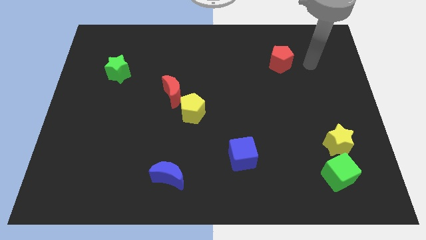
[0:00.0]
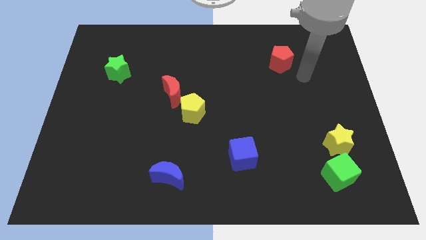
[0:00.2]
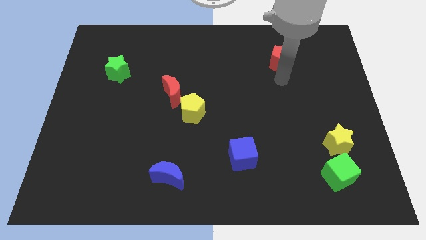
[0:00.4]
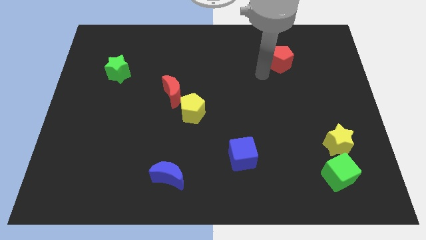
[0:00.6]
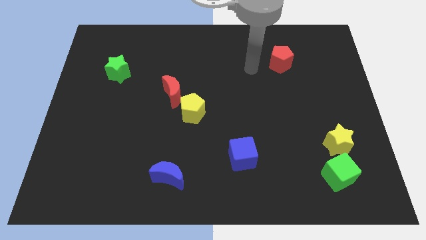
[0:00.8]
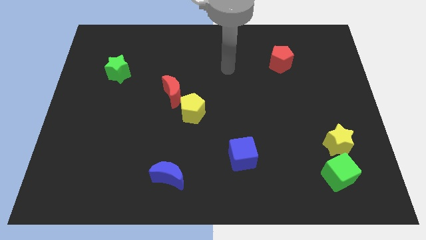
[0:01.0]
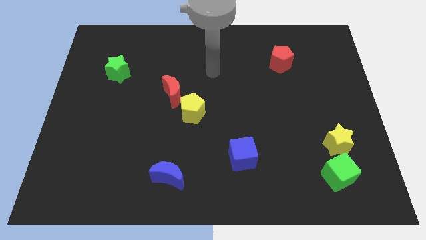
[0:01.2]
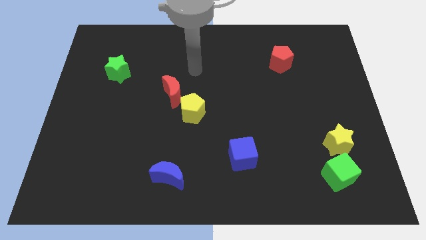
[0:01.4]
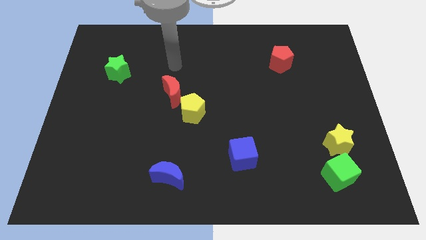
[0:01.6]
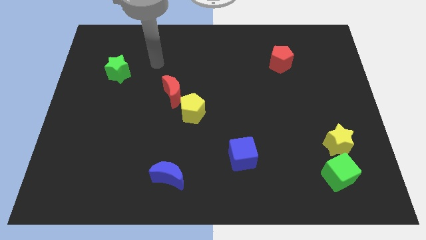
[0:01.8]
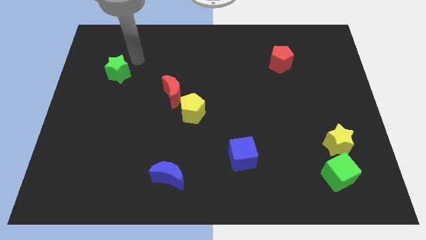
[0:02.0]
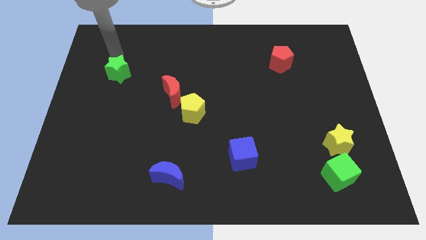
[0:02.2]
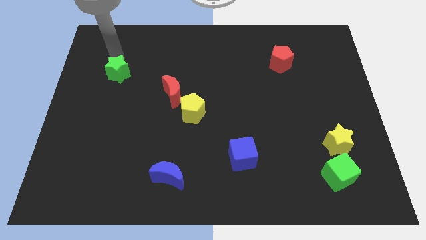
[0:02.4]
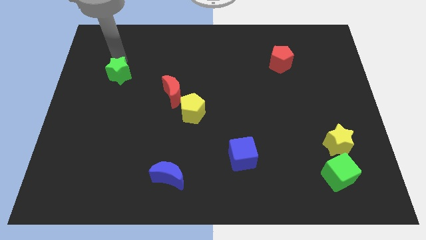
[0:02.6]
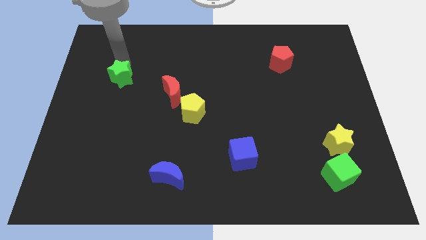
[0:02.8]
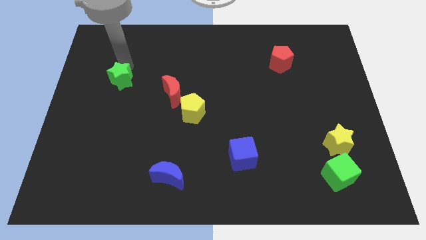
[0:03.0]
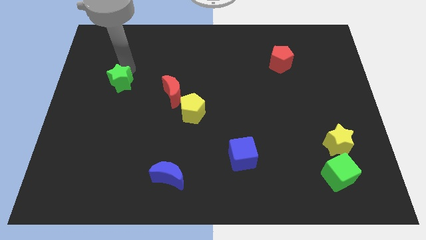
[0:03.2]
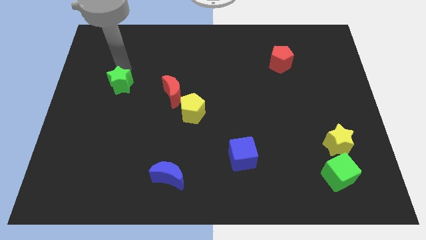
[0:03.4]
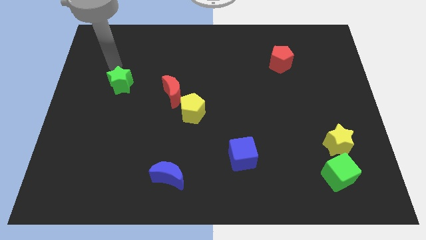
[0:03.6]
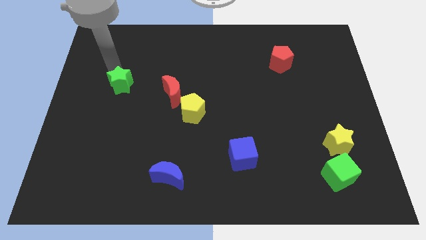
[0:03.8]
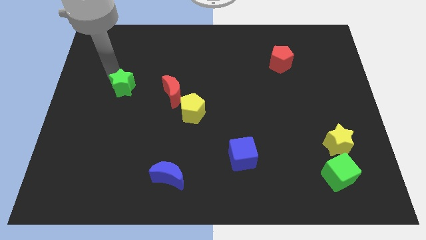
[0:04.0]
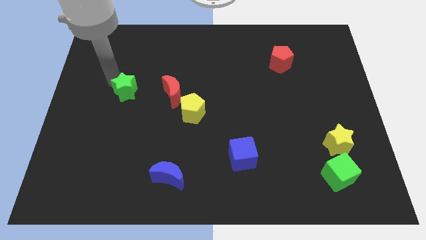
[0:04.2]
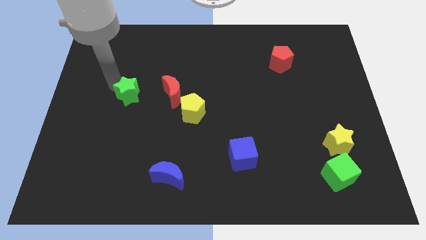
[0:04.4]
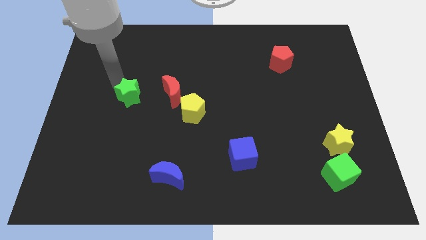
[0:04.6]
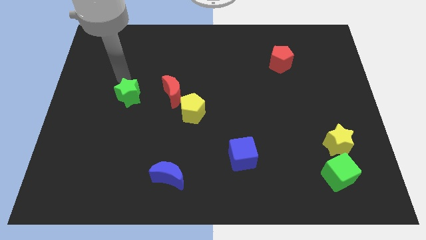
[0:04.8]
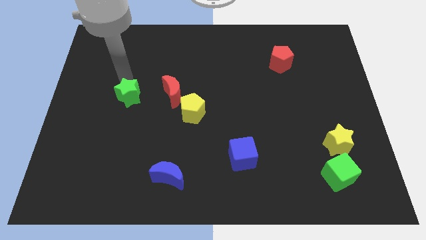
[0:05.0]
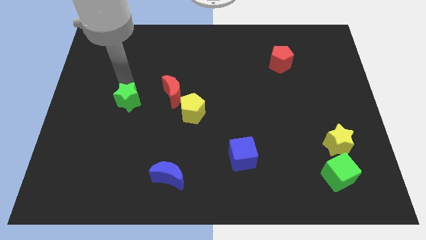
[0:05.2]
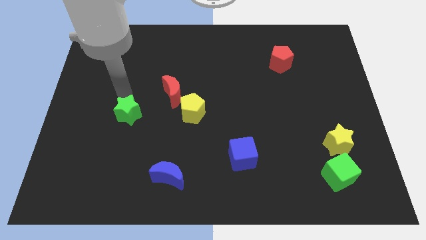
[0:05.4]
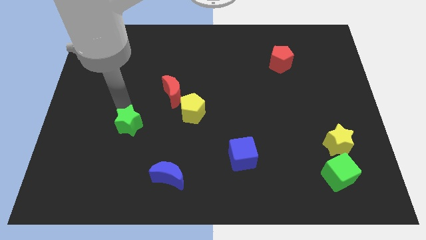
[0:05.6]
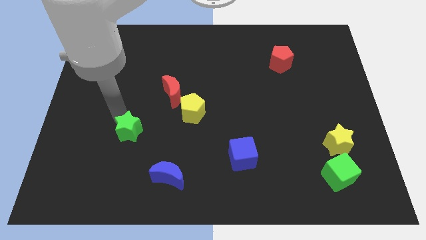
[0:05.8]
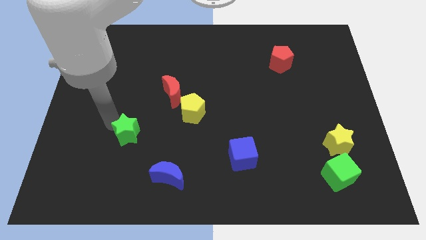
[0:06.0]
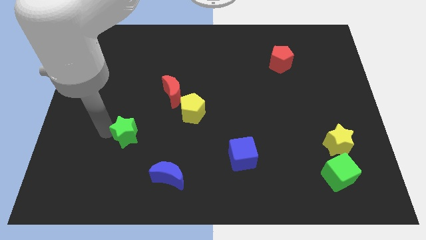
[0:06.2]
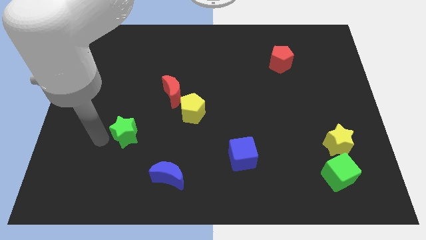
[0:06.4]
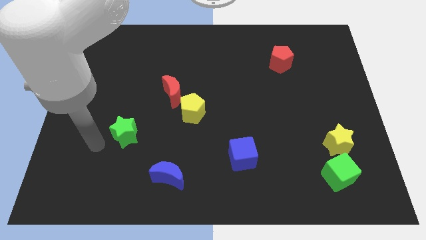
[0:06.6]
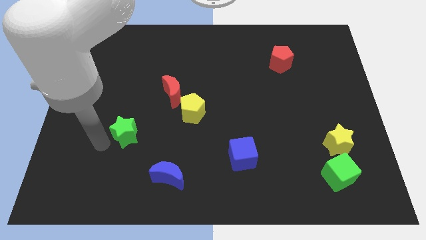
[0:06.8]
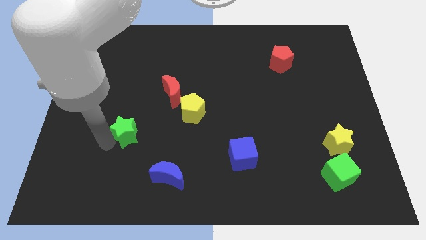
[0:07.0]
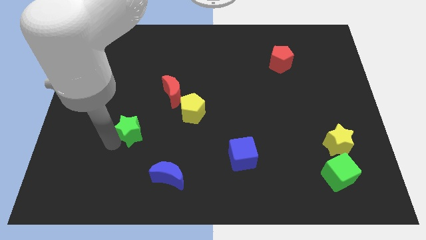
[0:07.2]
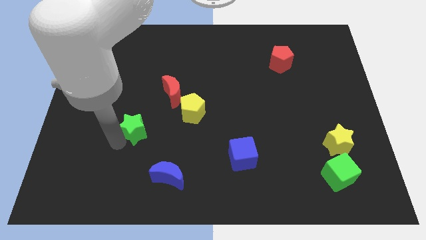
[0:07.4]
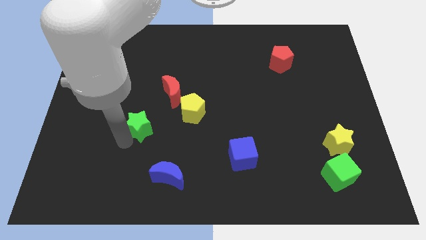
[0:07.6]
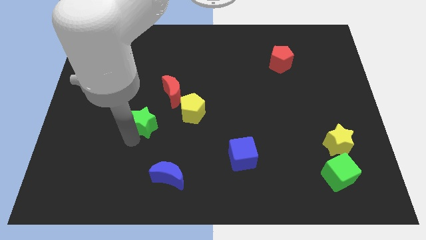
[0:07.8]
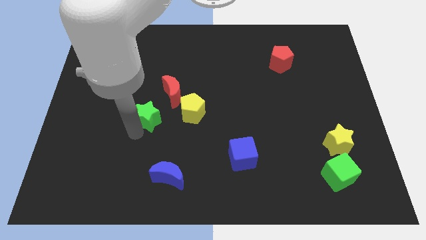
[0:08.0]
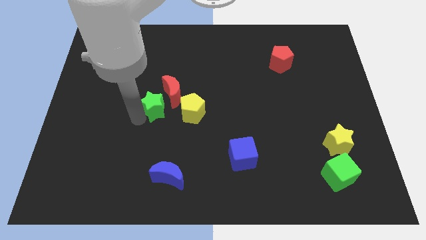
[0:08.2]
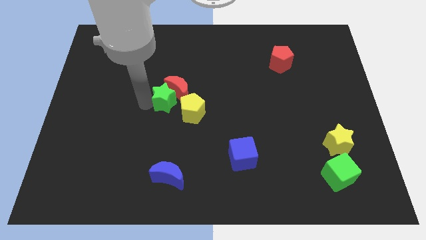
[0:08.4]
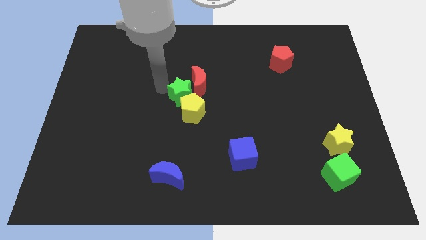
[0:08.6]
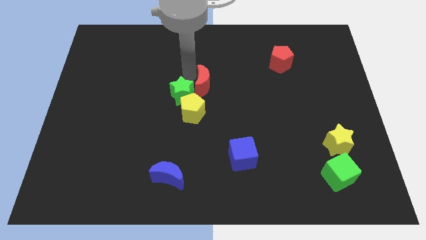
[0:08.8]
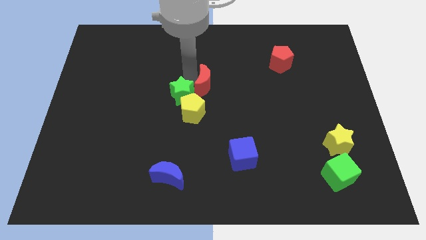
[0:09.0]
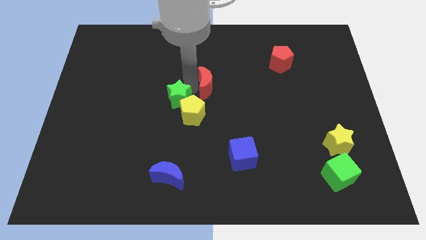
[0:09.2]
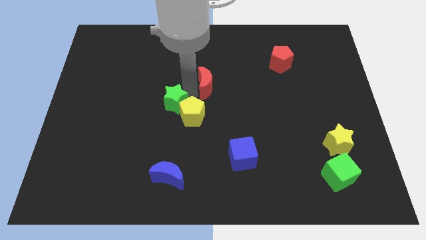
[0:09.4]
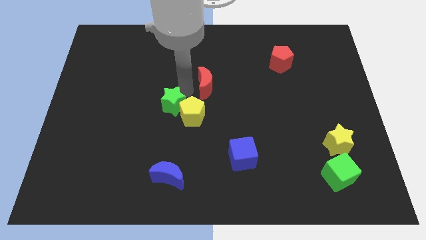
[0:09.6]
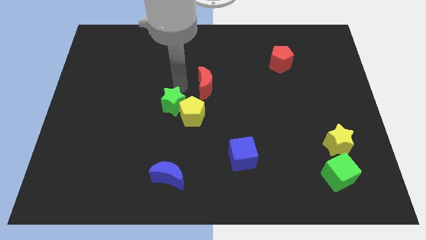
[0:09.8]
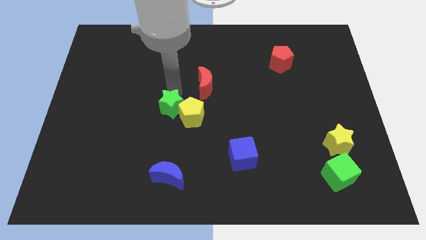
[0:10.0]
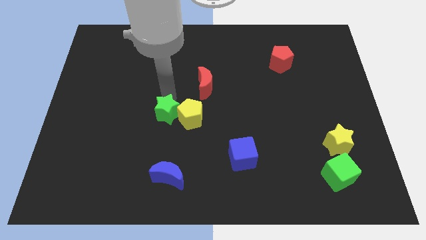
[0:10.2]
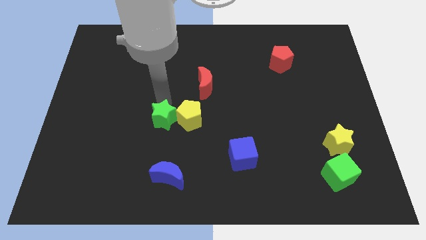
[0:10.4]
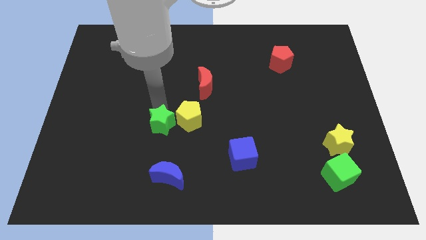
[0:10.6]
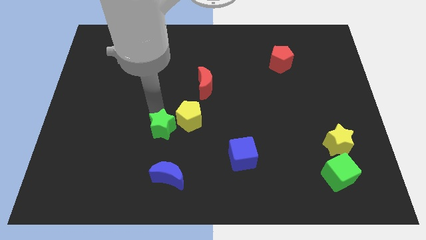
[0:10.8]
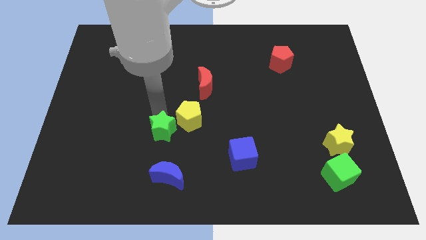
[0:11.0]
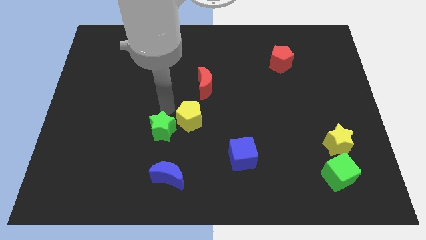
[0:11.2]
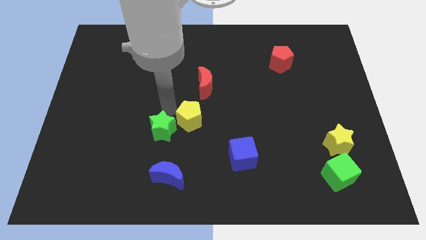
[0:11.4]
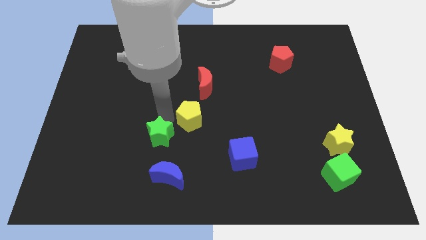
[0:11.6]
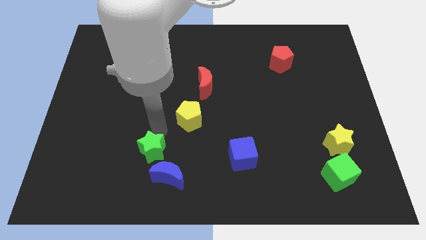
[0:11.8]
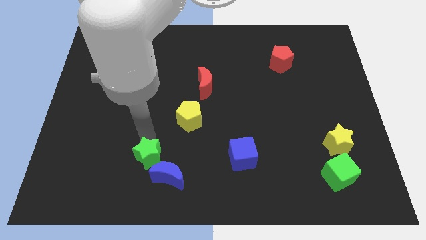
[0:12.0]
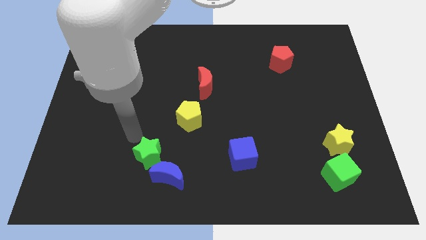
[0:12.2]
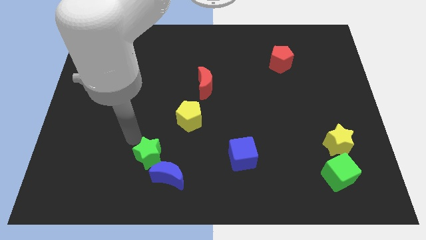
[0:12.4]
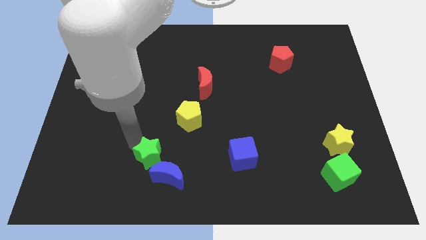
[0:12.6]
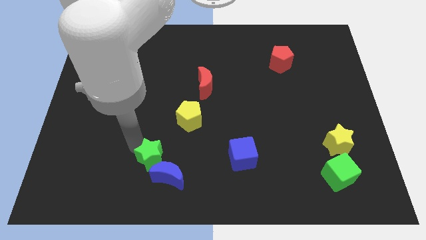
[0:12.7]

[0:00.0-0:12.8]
slide the green star to the blue moon

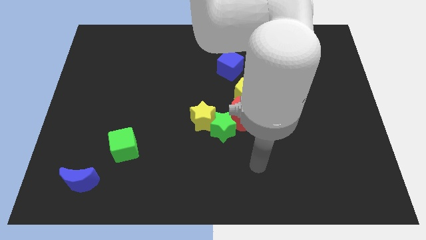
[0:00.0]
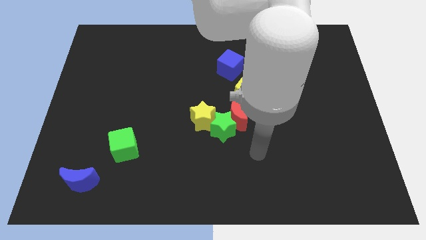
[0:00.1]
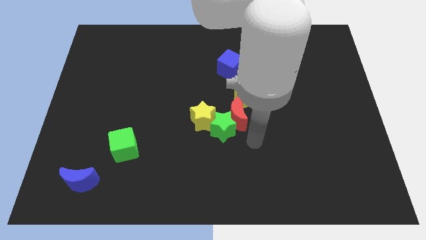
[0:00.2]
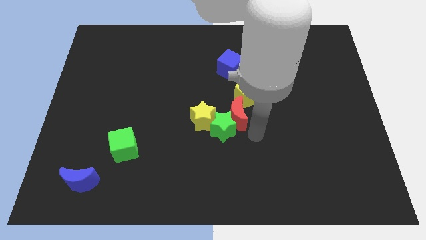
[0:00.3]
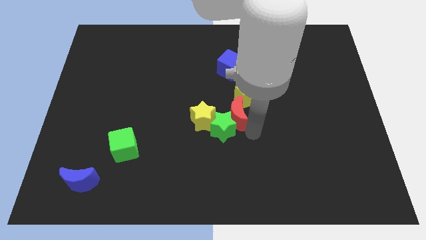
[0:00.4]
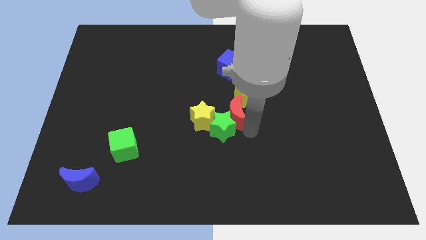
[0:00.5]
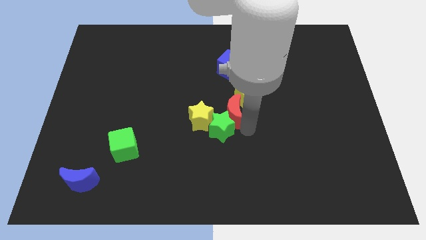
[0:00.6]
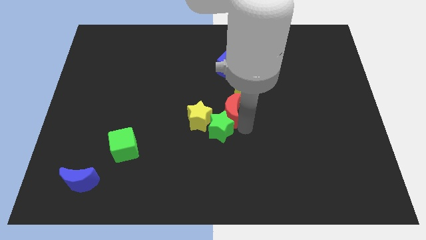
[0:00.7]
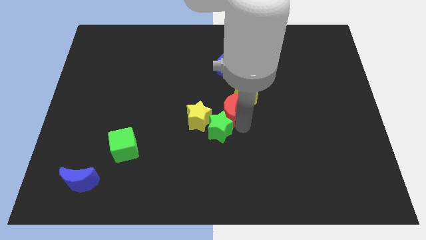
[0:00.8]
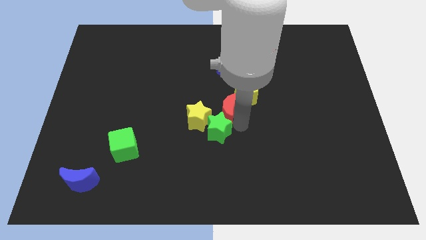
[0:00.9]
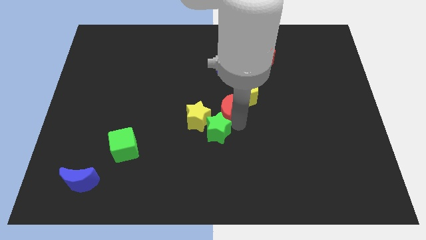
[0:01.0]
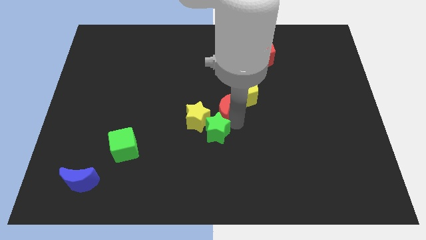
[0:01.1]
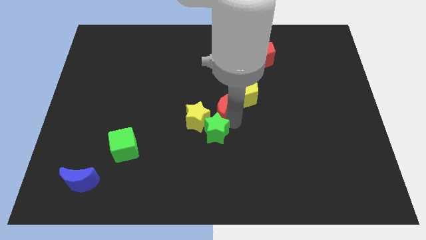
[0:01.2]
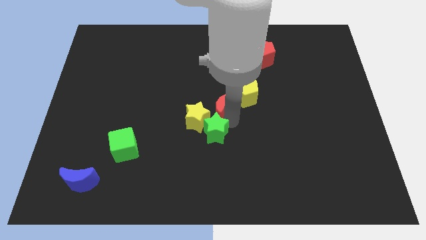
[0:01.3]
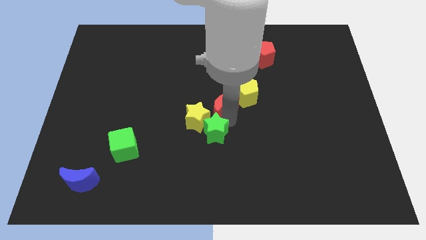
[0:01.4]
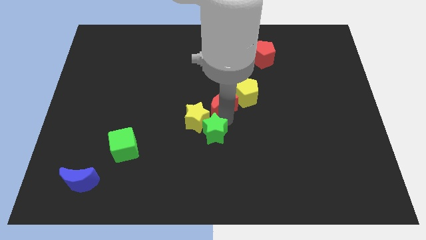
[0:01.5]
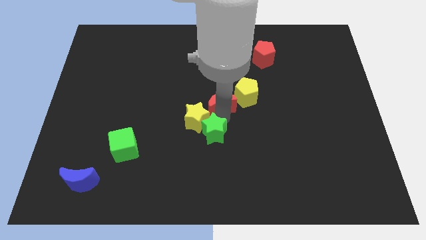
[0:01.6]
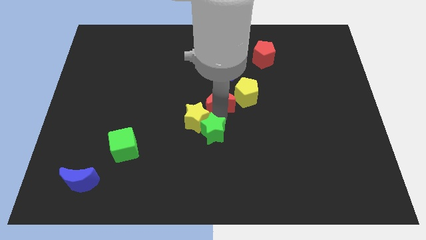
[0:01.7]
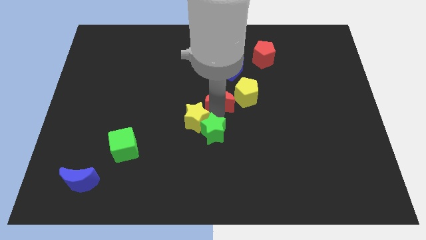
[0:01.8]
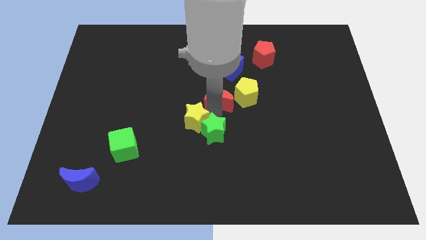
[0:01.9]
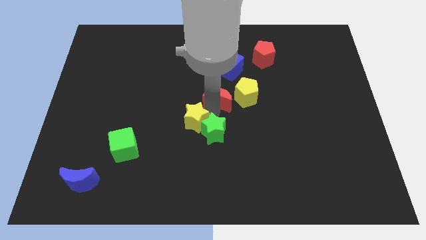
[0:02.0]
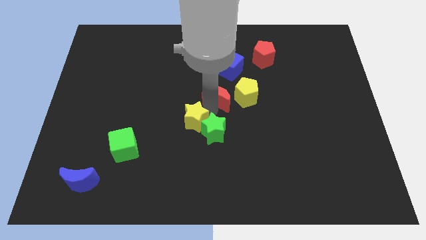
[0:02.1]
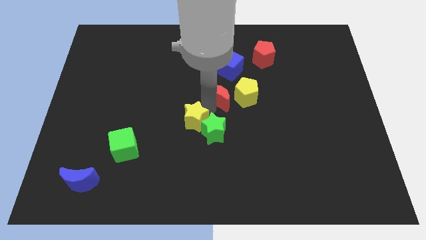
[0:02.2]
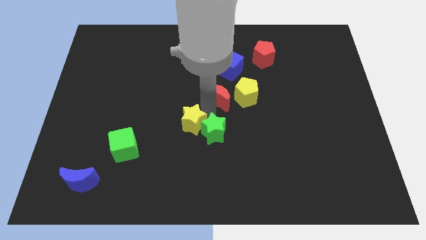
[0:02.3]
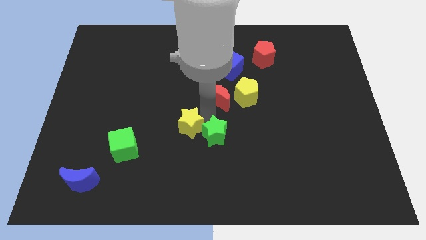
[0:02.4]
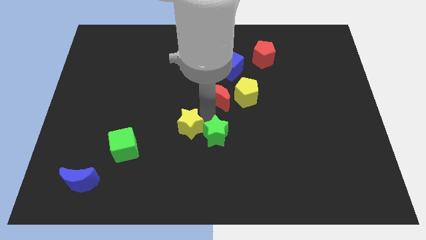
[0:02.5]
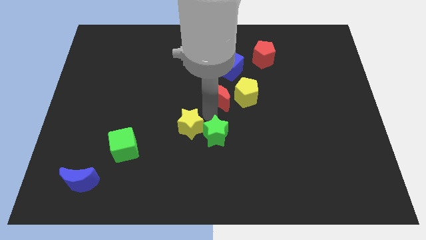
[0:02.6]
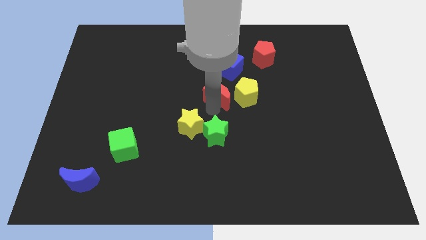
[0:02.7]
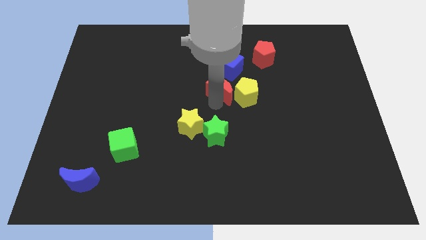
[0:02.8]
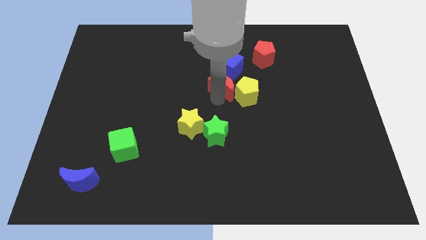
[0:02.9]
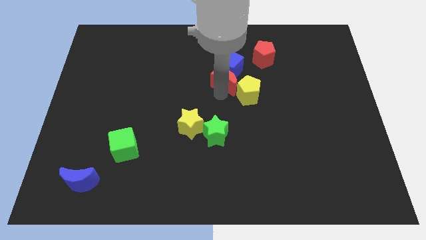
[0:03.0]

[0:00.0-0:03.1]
push the red moon towards the blue cube
